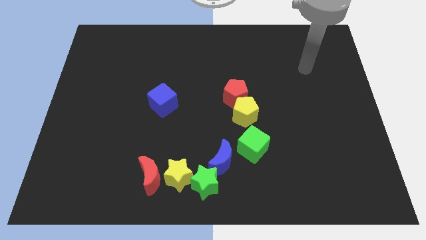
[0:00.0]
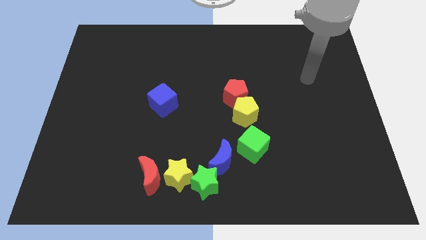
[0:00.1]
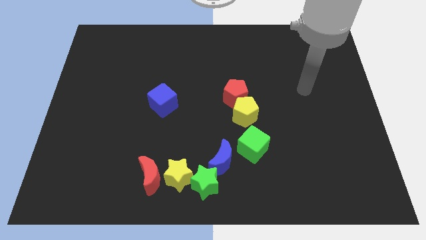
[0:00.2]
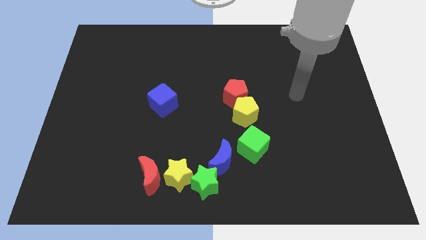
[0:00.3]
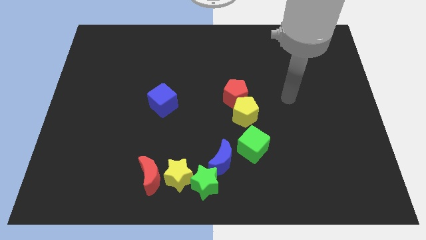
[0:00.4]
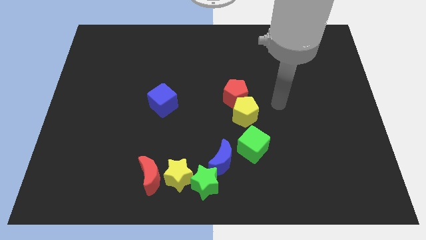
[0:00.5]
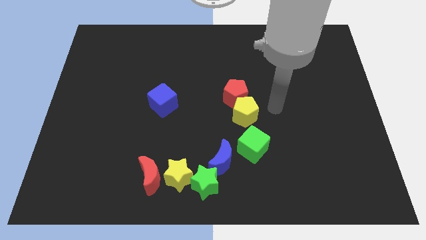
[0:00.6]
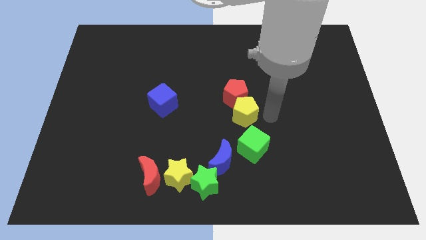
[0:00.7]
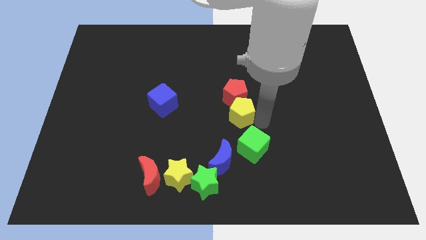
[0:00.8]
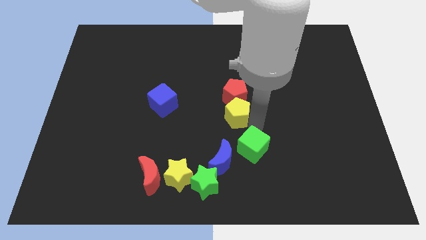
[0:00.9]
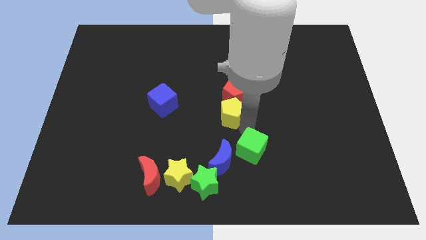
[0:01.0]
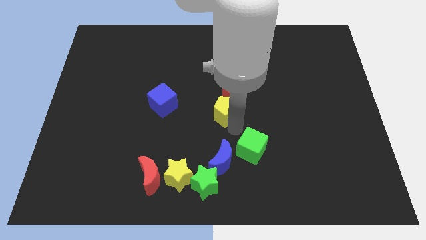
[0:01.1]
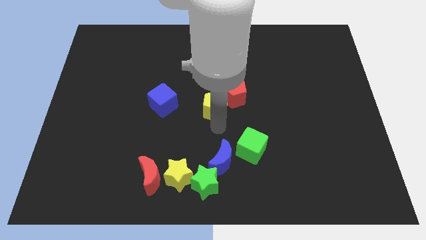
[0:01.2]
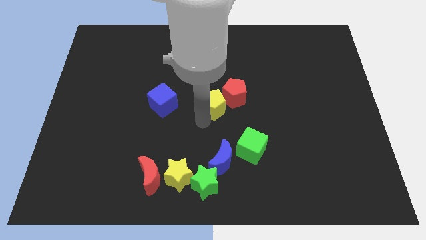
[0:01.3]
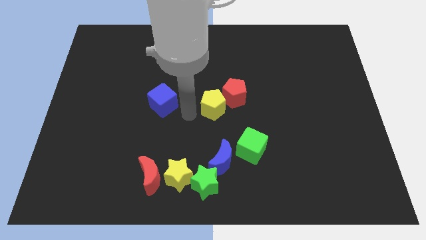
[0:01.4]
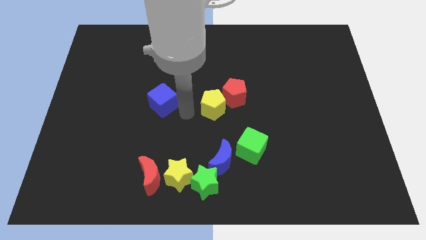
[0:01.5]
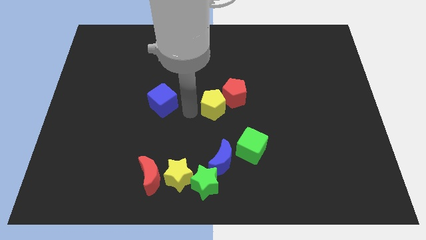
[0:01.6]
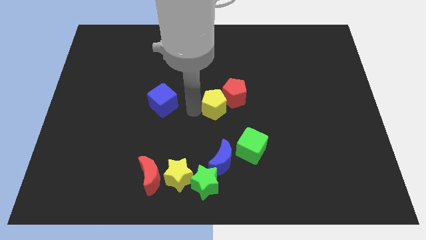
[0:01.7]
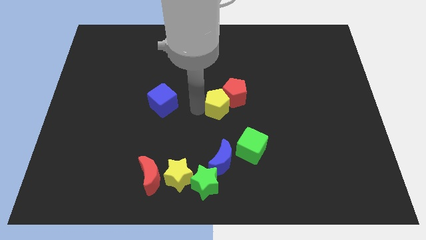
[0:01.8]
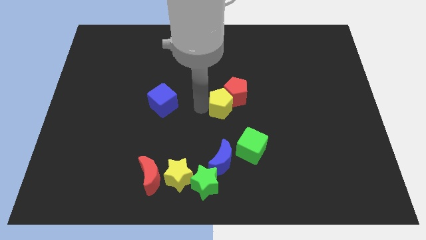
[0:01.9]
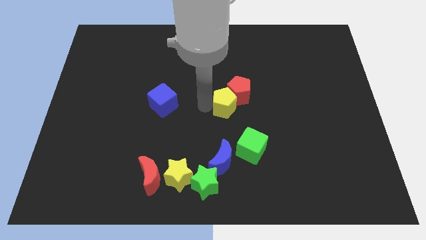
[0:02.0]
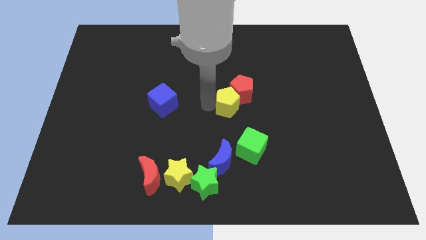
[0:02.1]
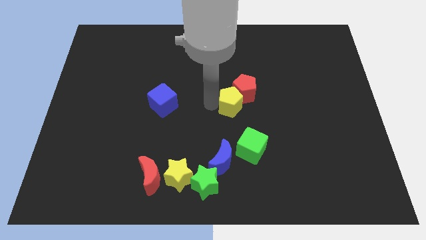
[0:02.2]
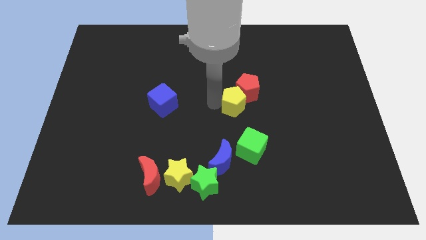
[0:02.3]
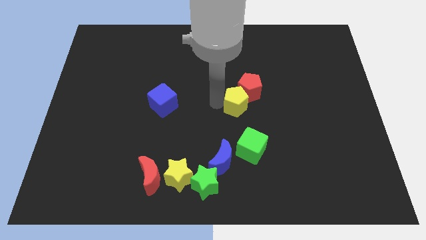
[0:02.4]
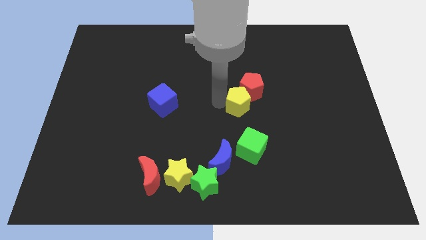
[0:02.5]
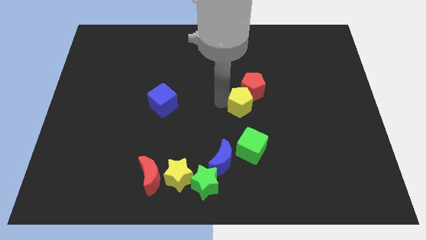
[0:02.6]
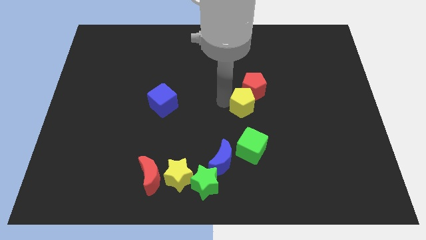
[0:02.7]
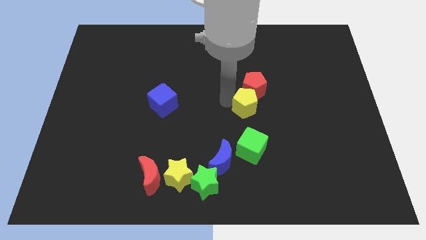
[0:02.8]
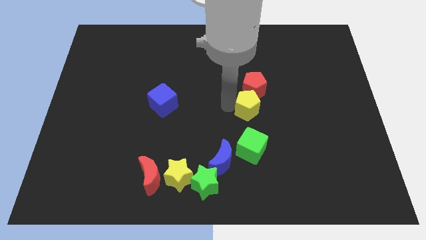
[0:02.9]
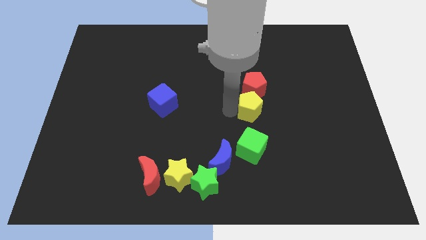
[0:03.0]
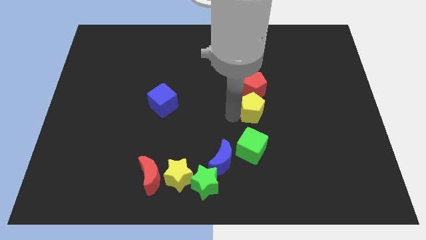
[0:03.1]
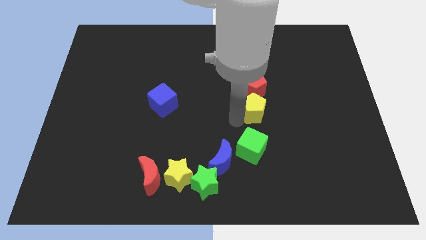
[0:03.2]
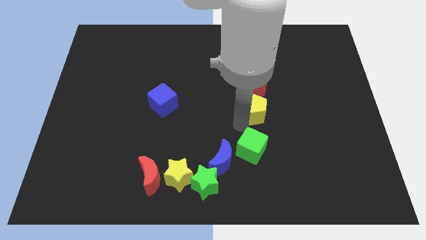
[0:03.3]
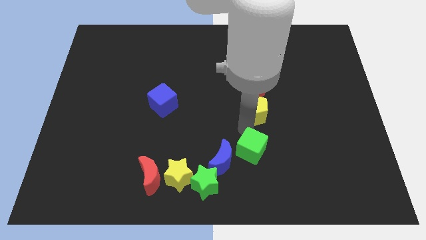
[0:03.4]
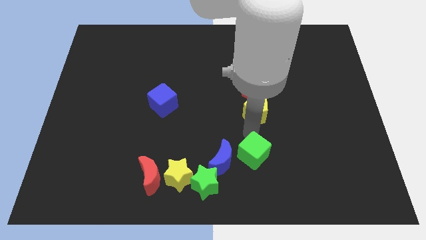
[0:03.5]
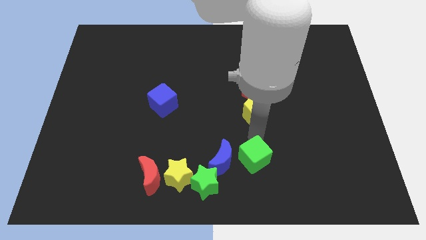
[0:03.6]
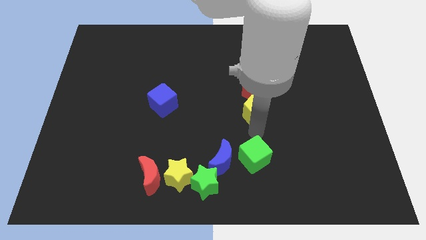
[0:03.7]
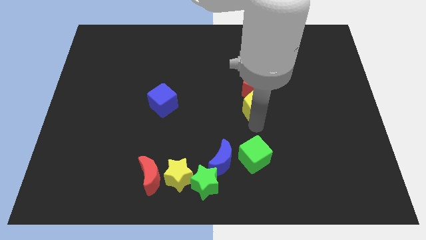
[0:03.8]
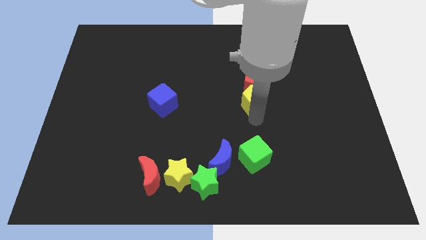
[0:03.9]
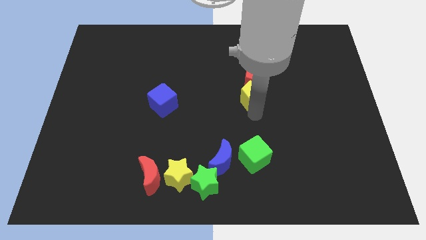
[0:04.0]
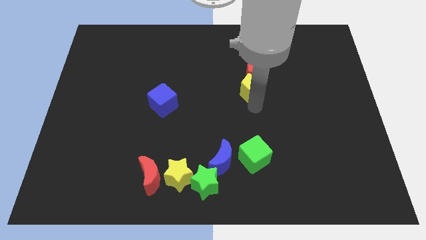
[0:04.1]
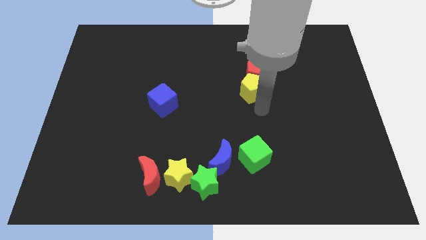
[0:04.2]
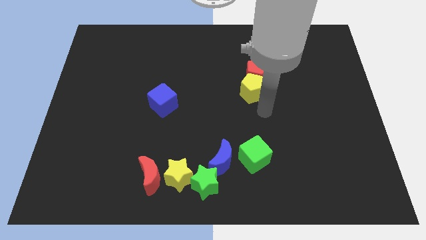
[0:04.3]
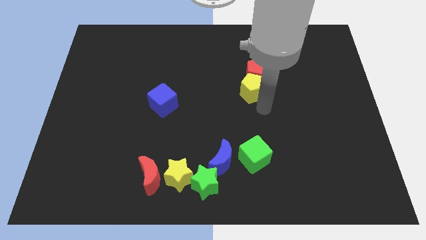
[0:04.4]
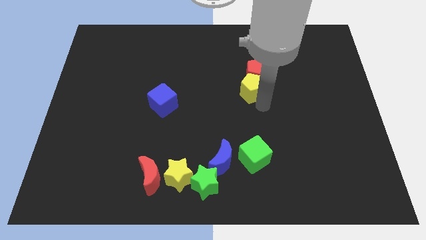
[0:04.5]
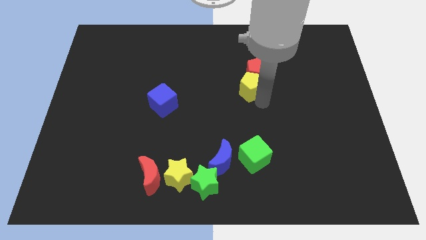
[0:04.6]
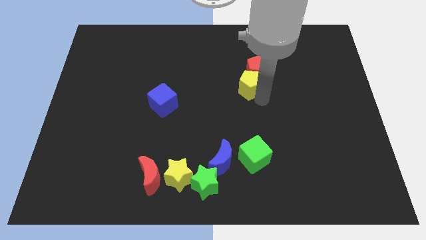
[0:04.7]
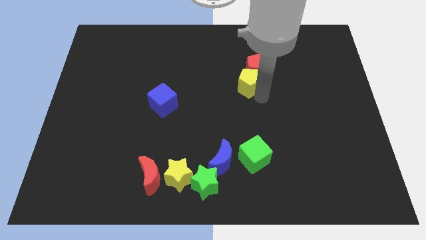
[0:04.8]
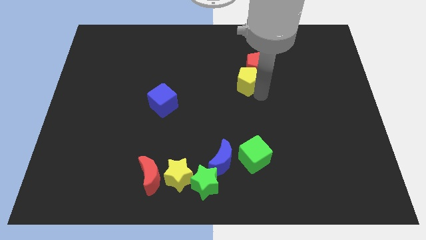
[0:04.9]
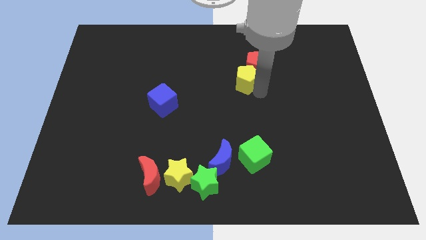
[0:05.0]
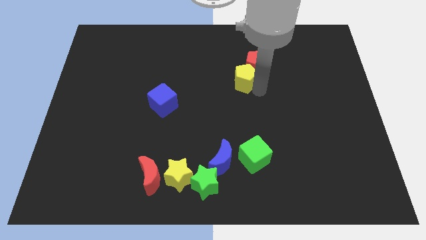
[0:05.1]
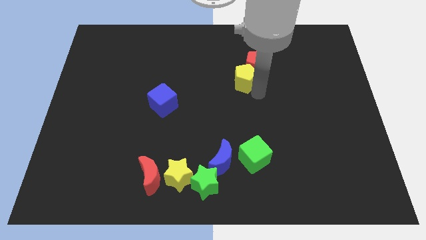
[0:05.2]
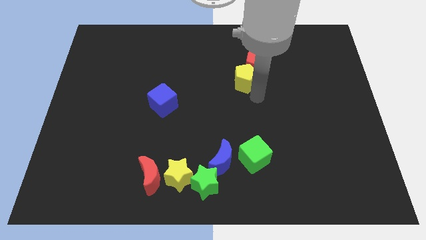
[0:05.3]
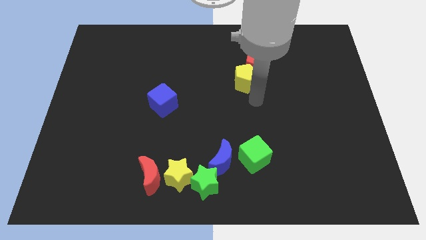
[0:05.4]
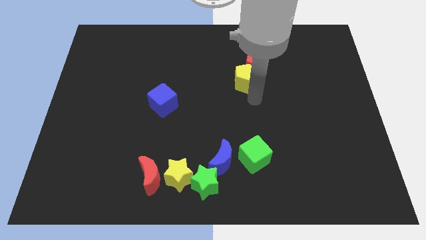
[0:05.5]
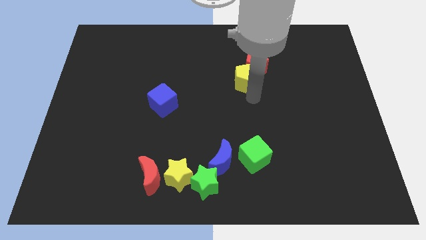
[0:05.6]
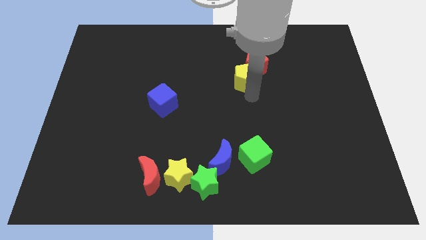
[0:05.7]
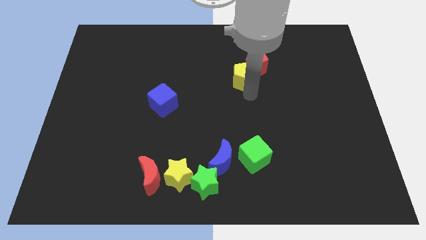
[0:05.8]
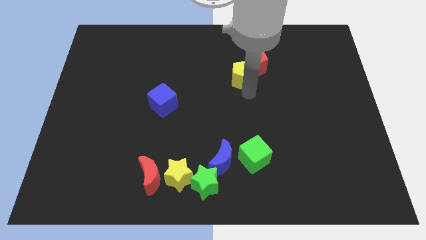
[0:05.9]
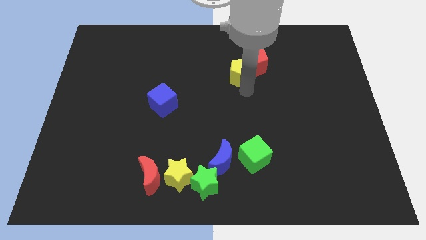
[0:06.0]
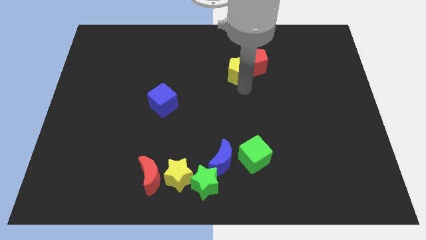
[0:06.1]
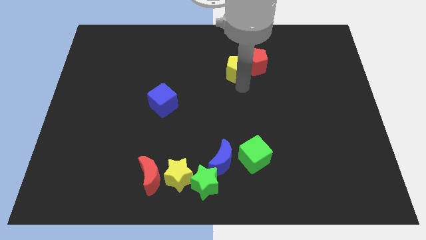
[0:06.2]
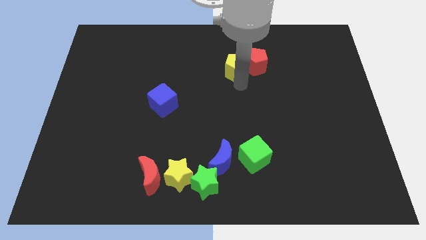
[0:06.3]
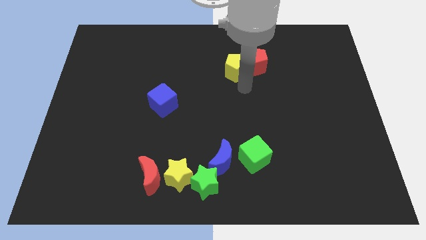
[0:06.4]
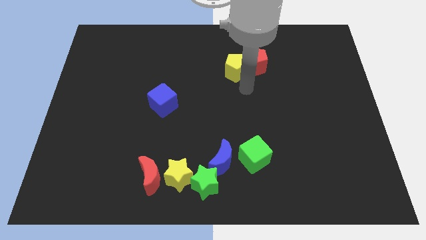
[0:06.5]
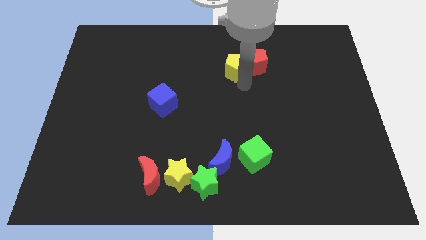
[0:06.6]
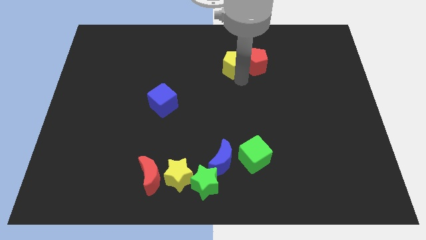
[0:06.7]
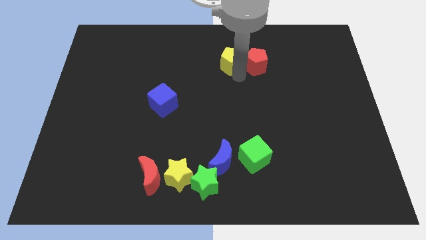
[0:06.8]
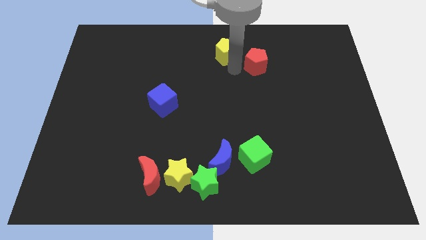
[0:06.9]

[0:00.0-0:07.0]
move the yellow pentagon to the top

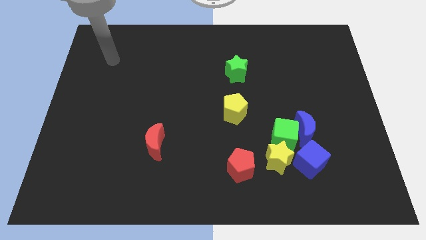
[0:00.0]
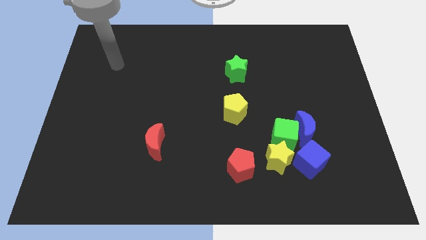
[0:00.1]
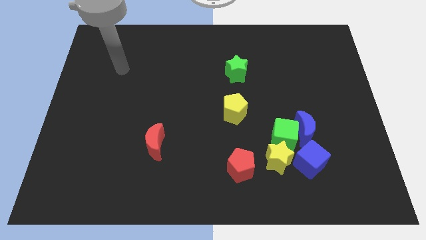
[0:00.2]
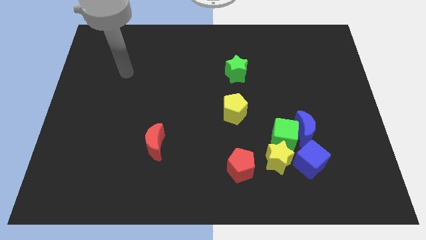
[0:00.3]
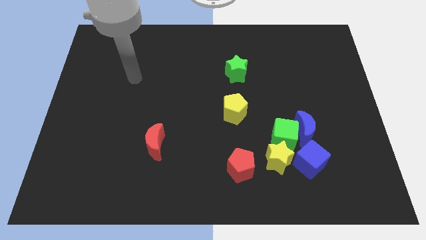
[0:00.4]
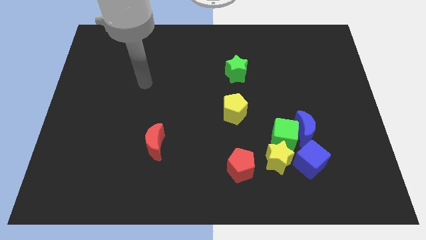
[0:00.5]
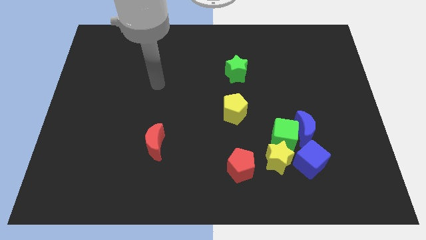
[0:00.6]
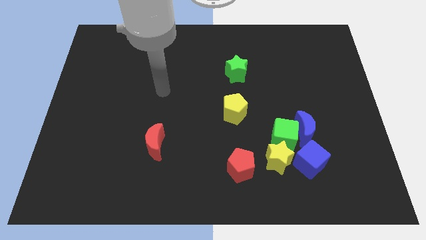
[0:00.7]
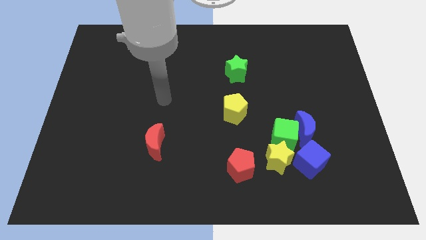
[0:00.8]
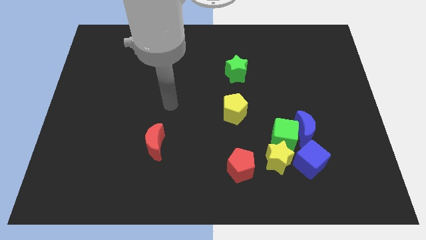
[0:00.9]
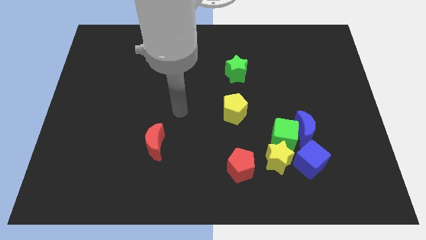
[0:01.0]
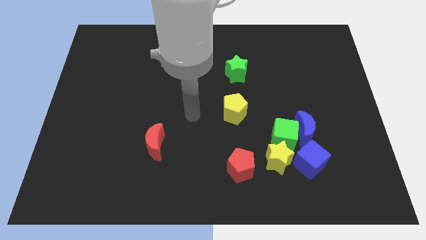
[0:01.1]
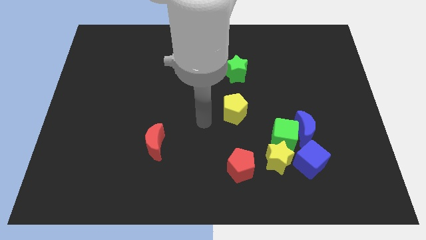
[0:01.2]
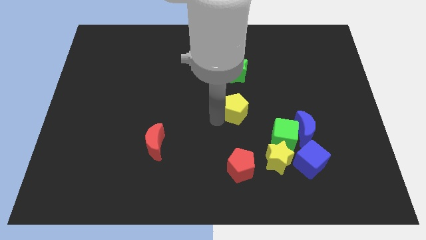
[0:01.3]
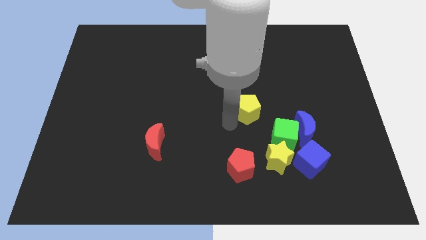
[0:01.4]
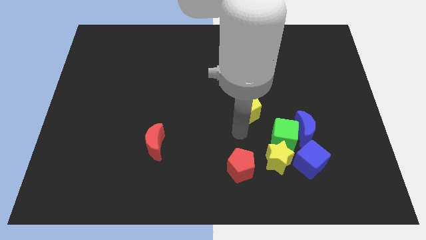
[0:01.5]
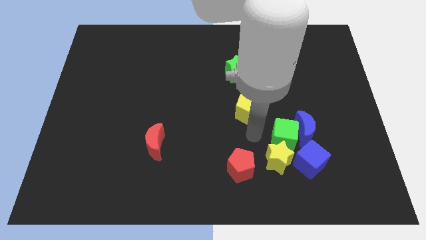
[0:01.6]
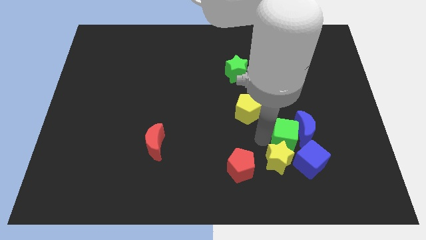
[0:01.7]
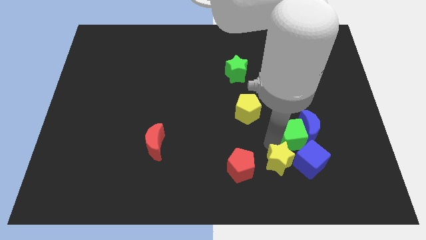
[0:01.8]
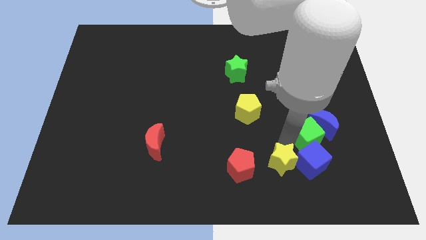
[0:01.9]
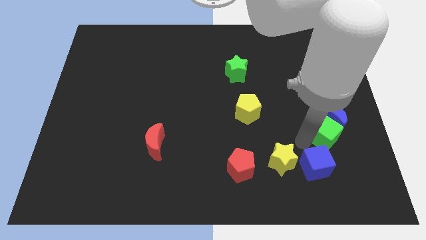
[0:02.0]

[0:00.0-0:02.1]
push the blue moon to the center right
